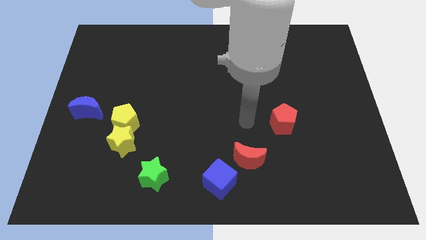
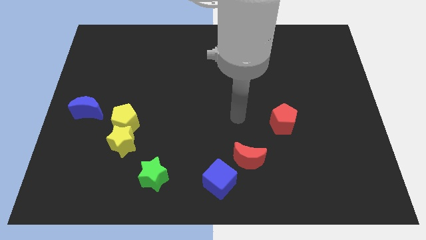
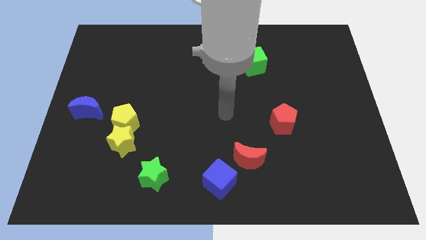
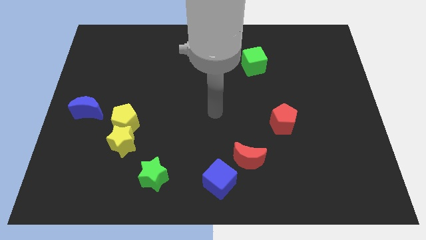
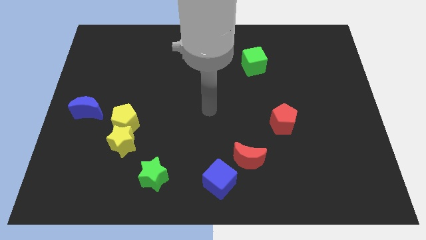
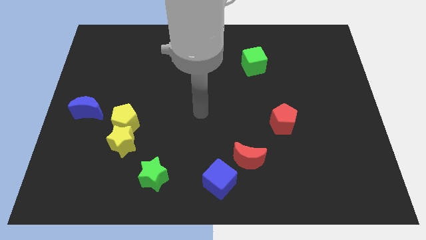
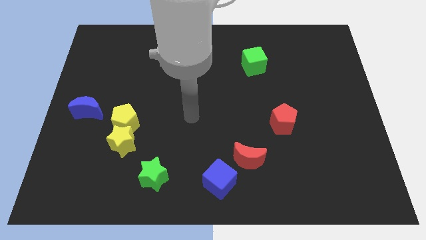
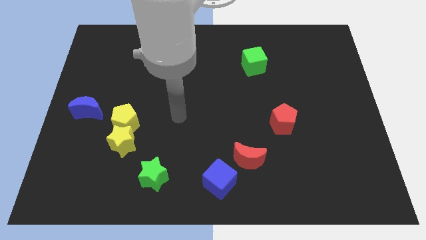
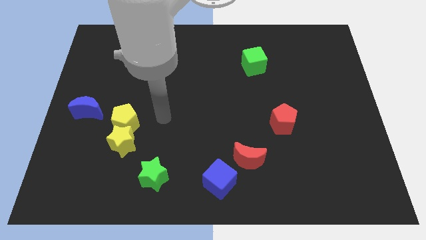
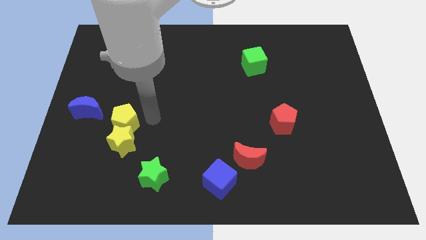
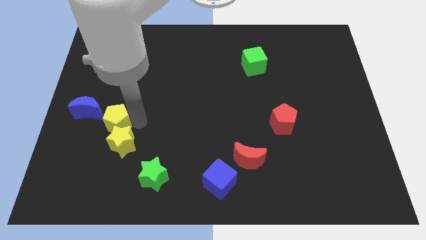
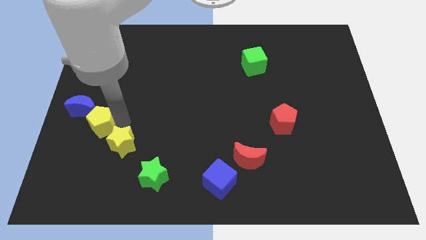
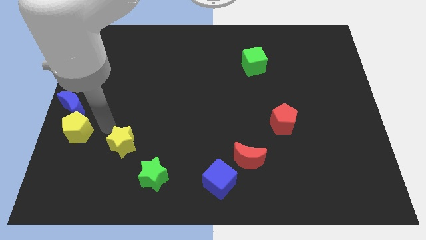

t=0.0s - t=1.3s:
pull the yellow star apart from the yellow pentagon

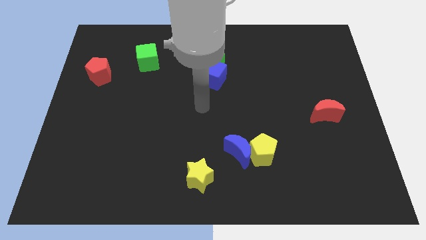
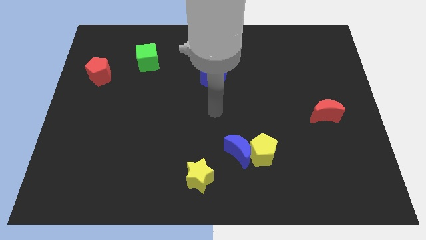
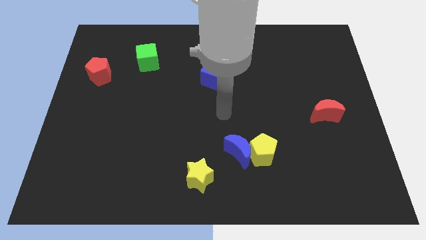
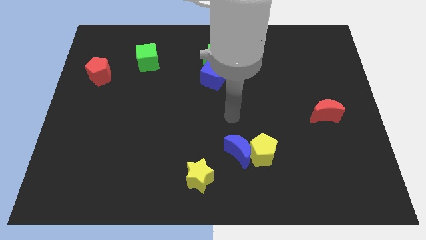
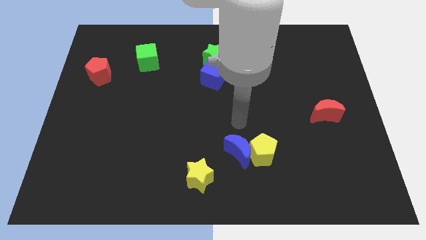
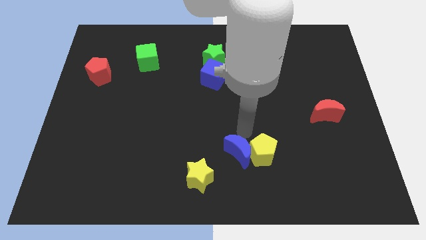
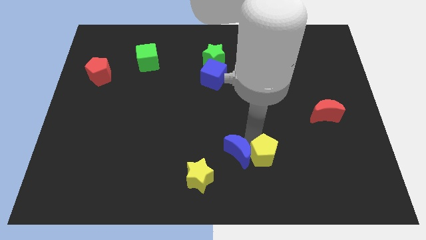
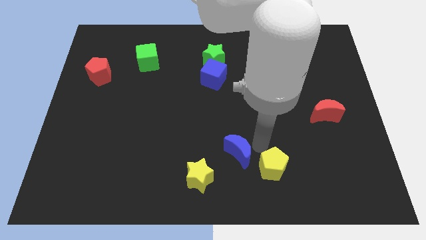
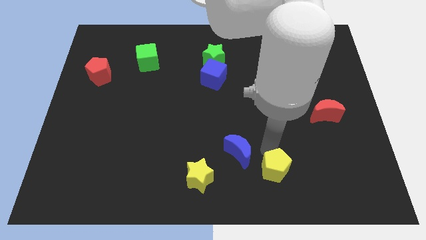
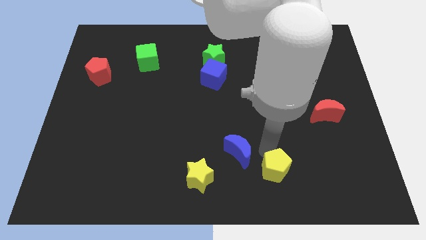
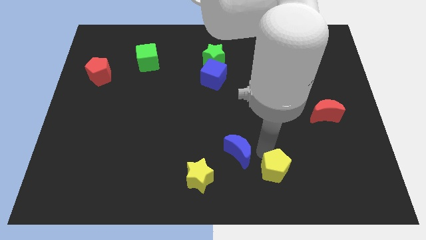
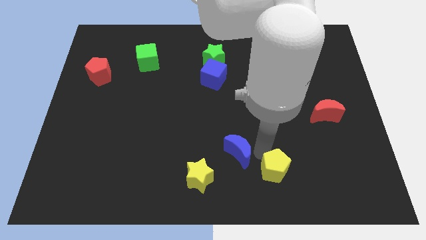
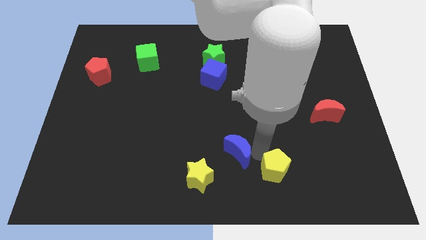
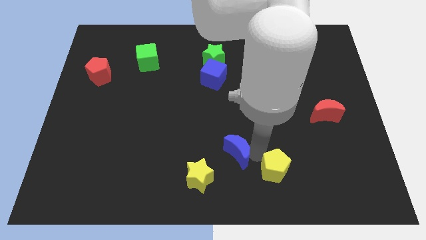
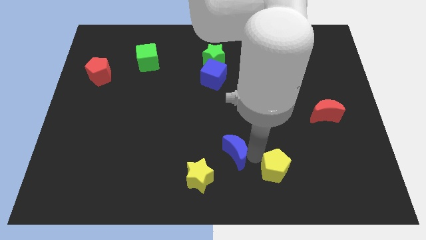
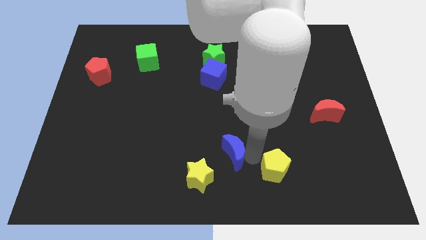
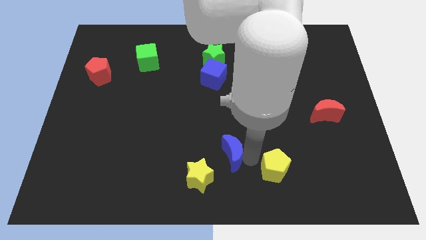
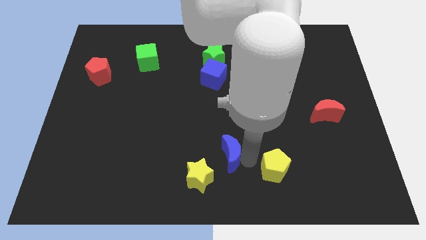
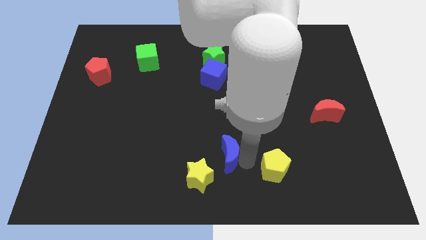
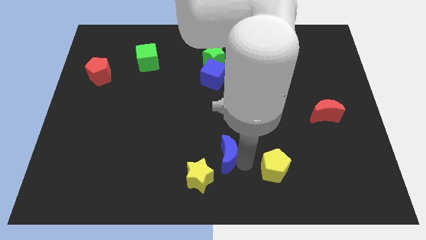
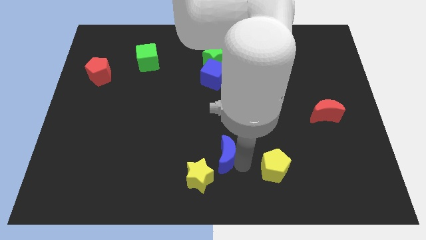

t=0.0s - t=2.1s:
pull the blue moon apart from the yellow pentagon

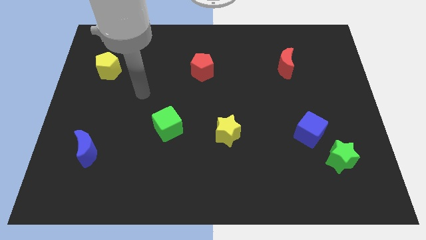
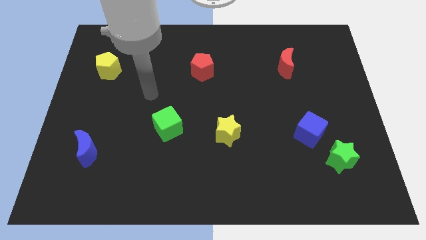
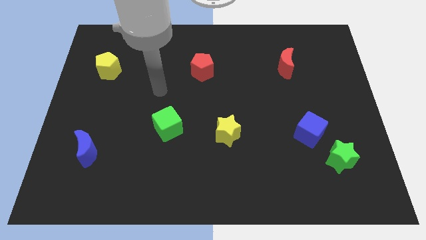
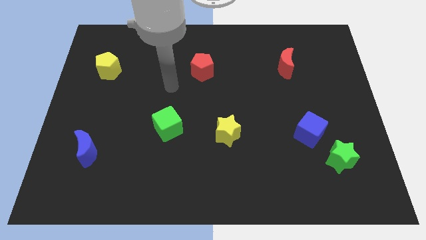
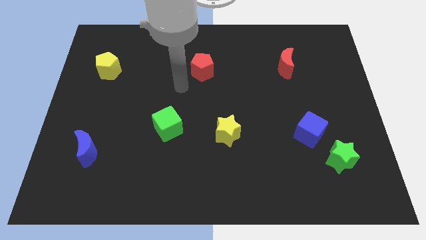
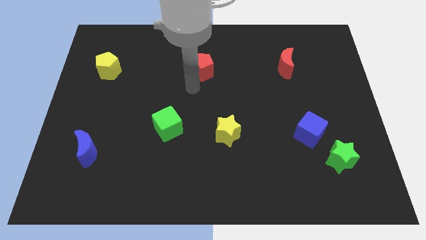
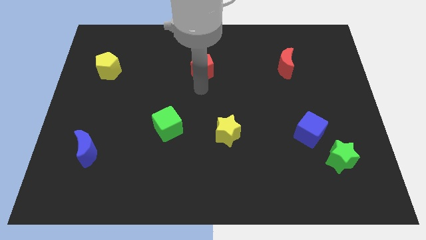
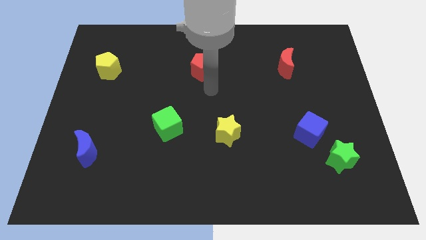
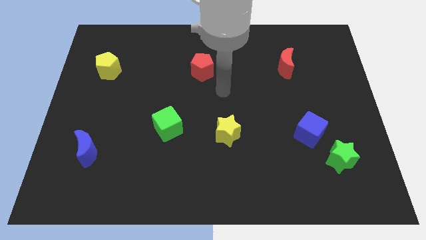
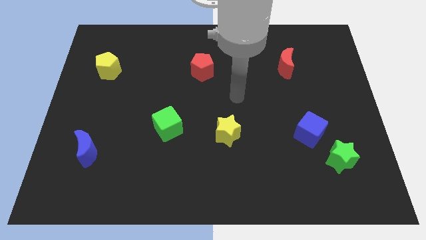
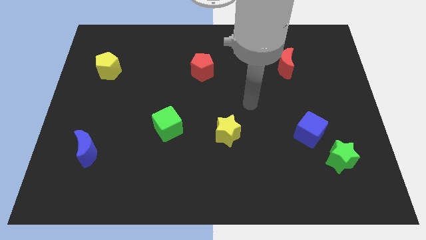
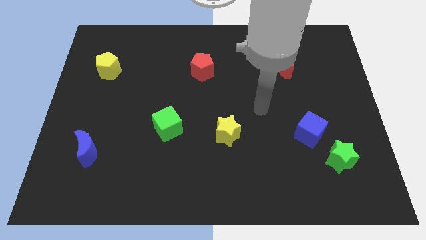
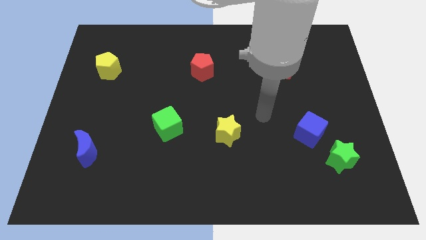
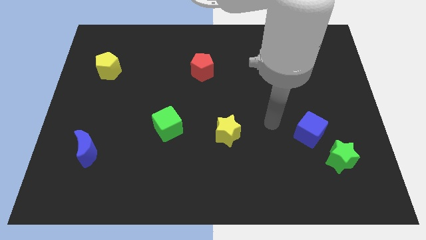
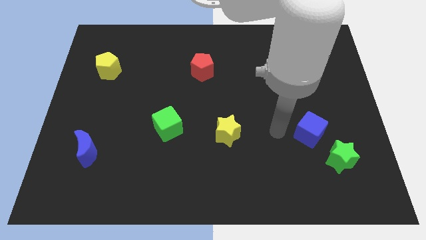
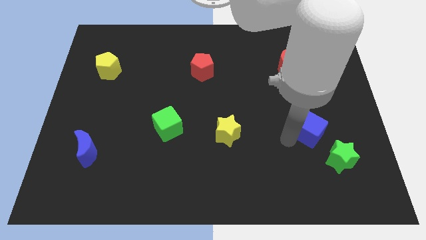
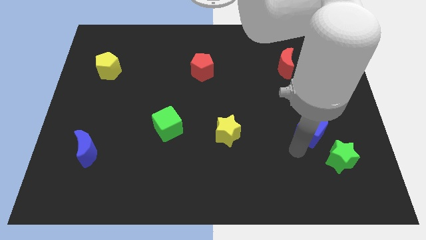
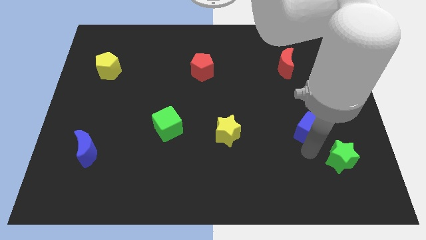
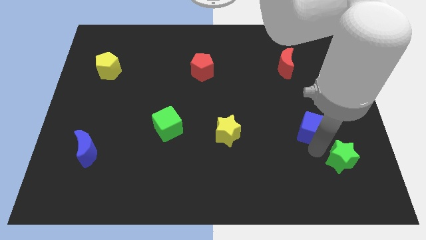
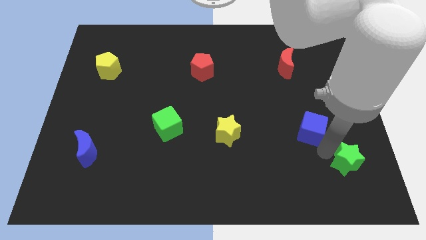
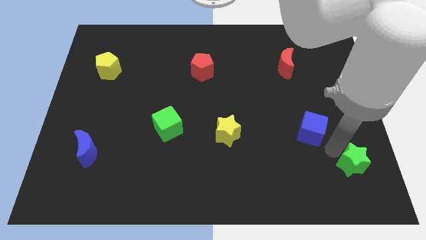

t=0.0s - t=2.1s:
pull the blue cube apart from the green star

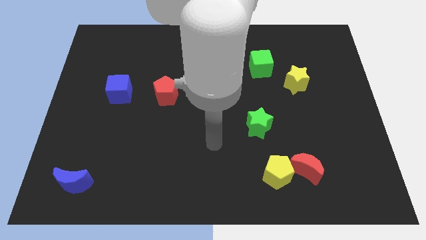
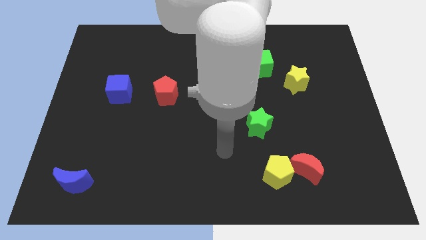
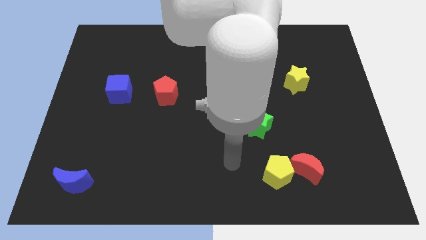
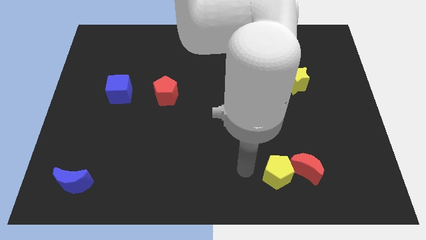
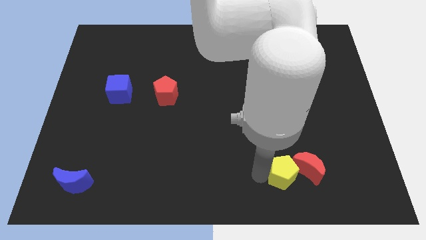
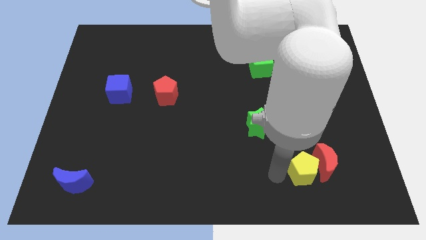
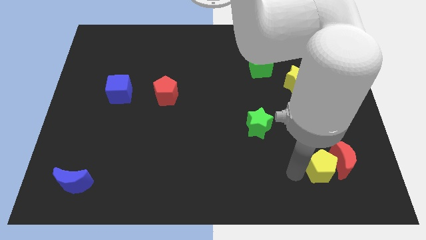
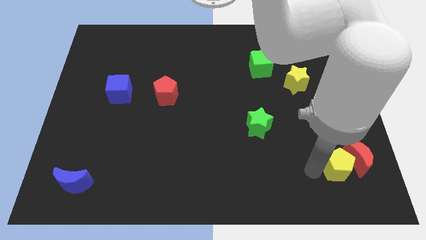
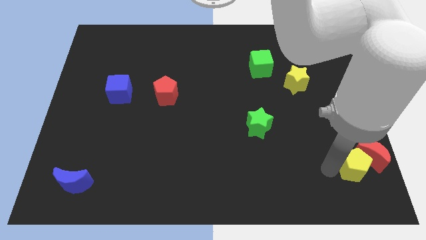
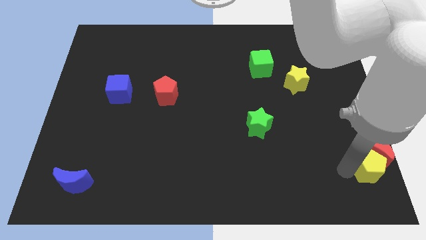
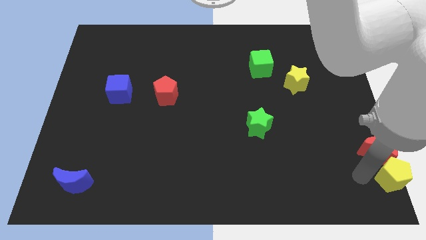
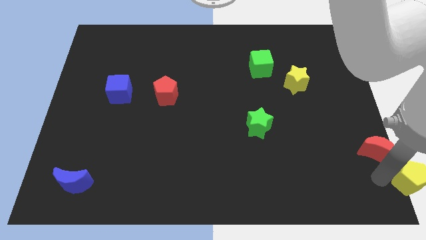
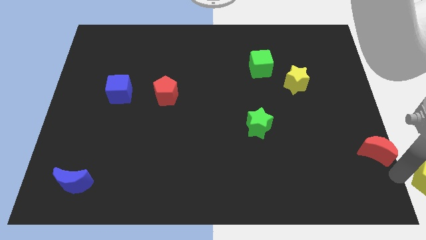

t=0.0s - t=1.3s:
pull the red moon apart from the yellow pentagon

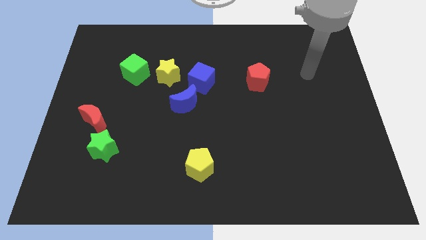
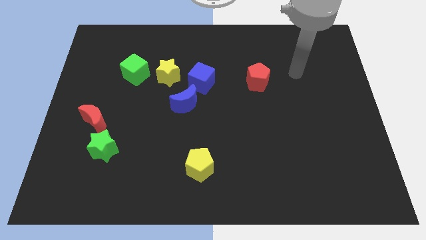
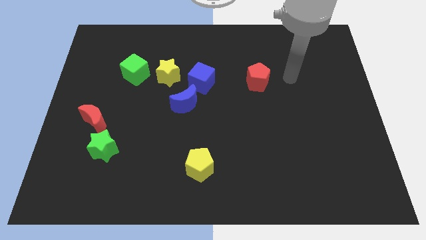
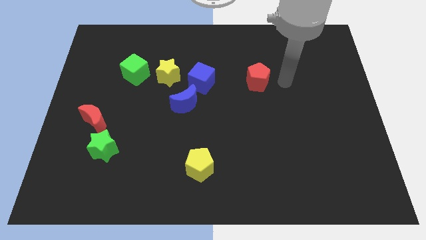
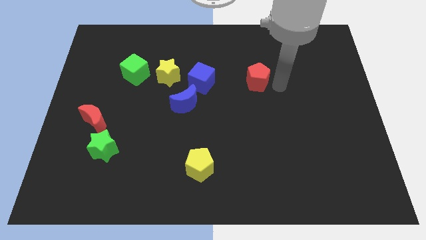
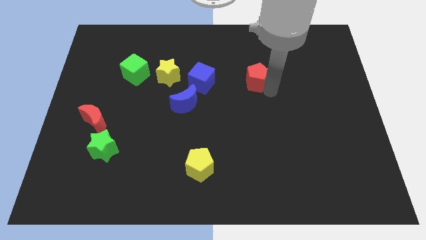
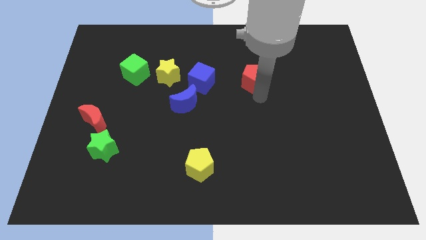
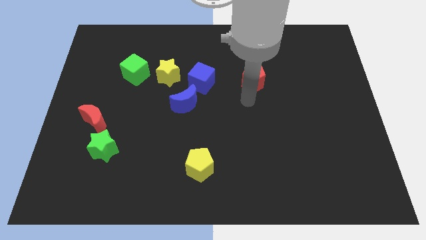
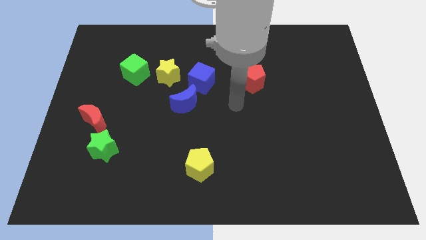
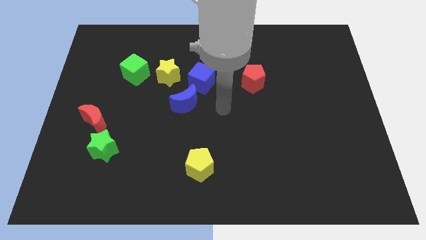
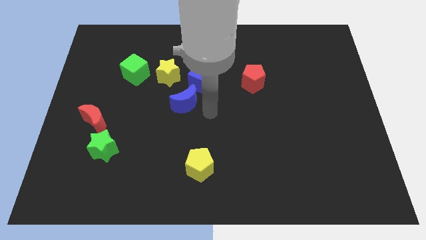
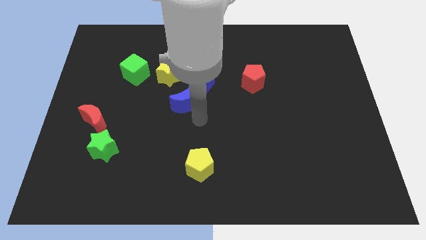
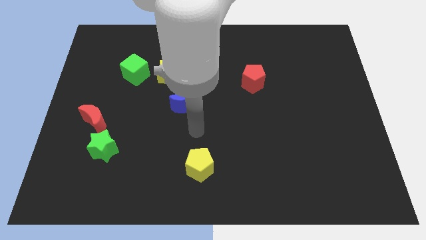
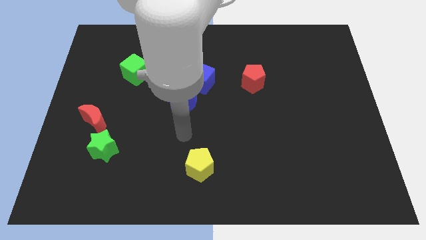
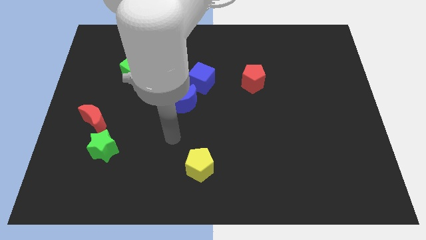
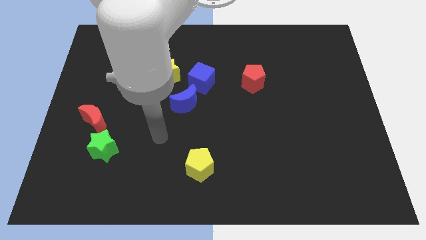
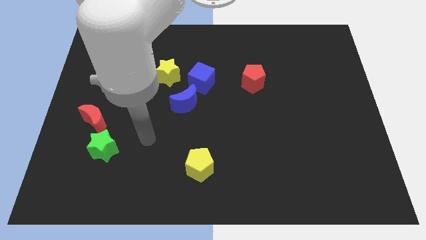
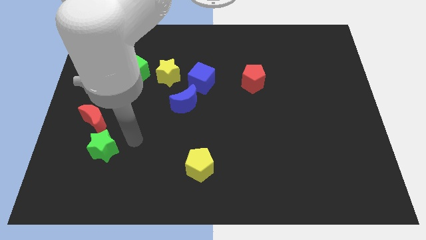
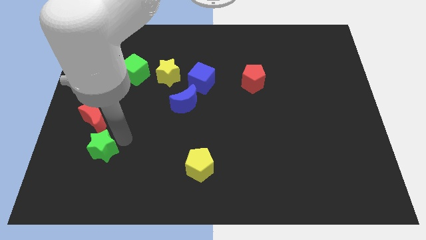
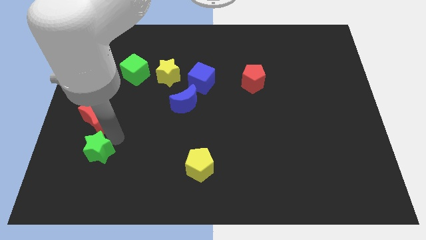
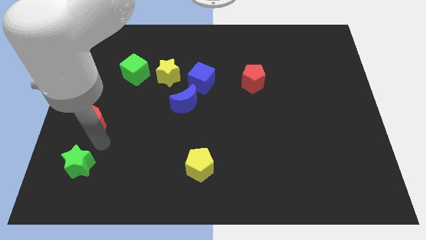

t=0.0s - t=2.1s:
pull the red moon apart from the green star

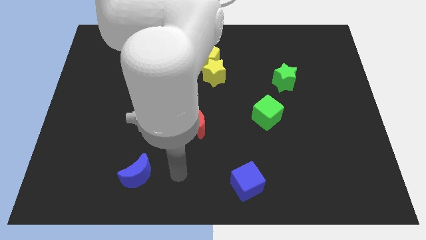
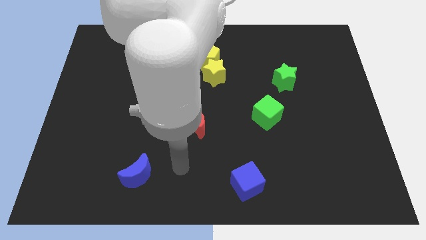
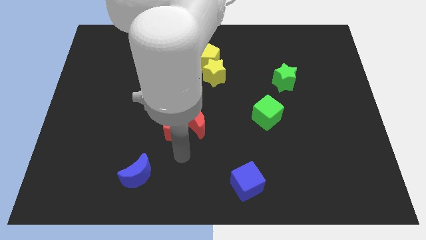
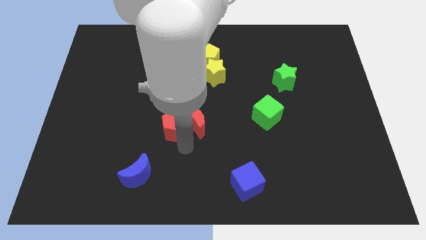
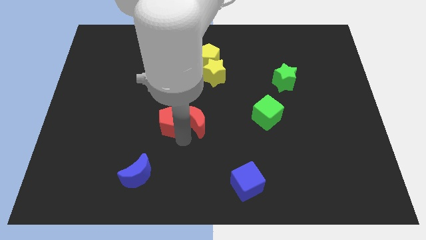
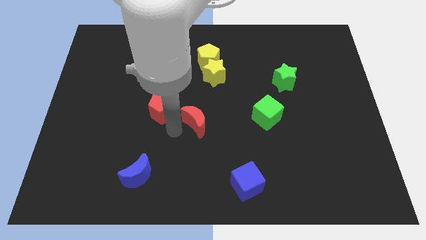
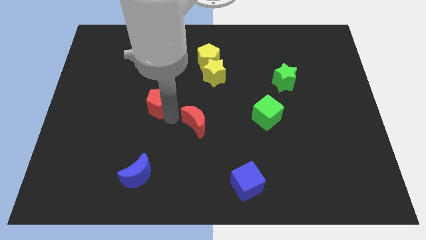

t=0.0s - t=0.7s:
pull the red moon apart from the red pentagon
